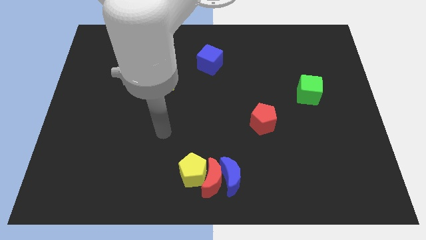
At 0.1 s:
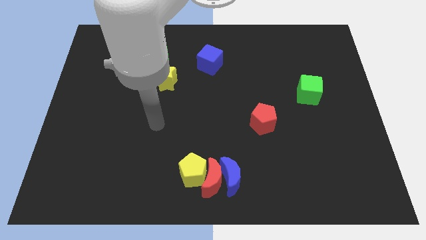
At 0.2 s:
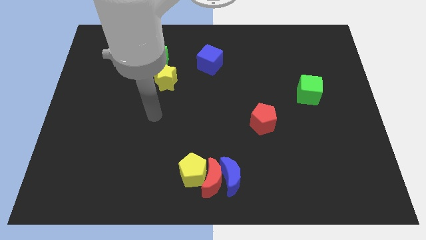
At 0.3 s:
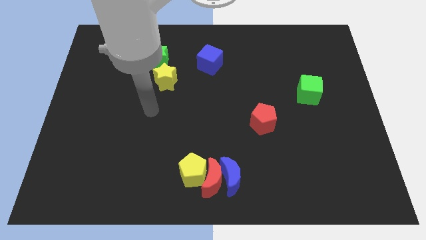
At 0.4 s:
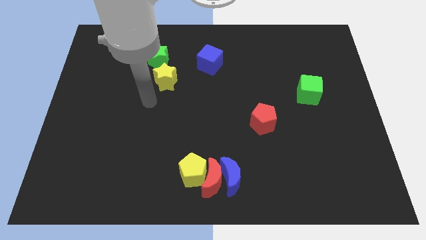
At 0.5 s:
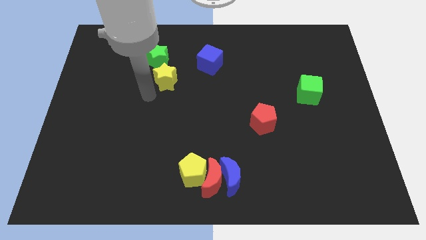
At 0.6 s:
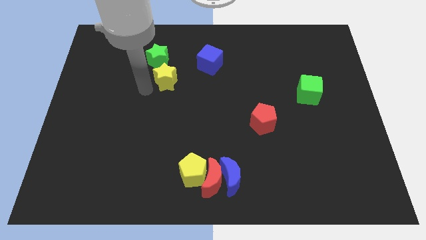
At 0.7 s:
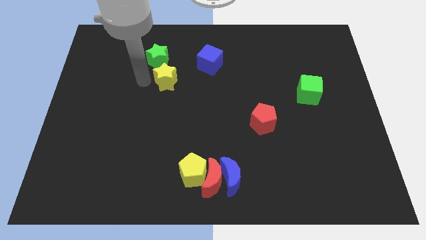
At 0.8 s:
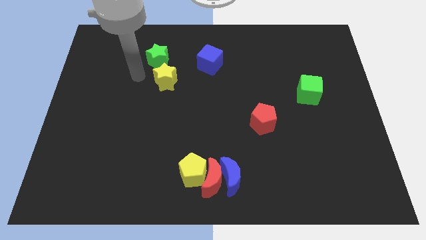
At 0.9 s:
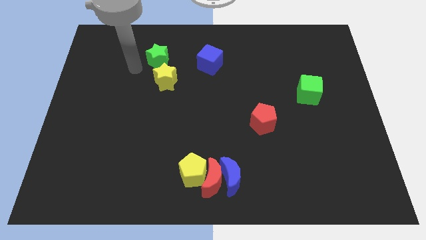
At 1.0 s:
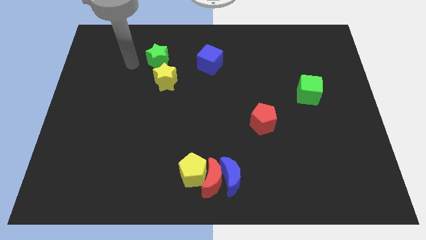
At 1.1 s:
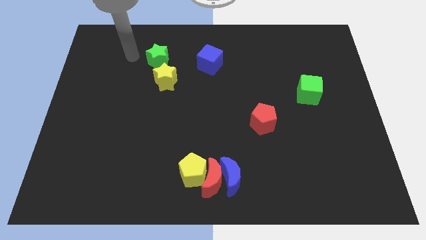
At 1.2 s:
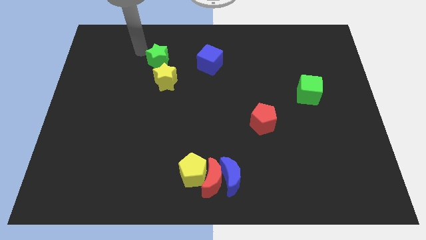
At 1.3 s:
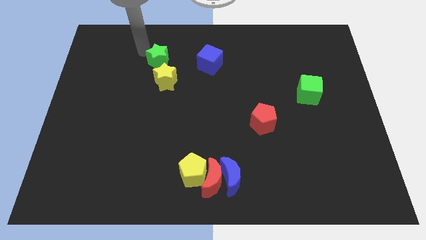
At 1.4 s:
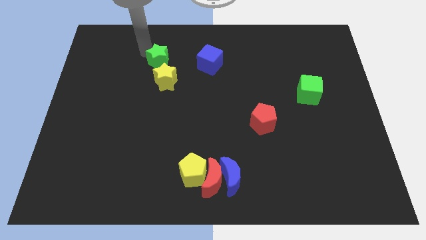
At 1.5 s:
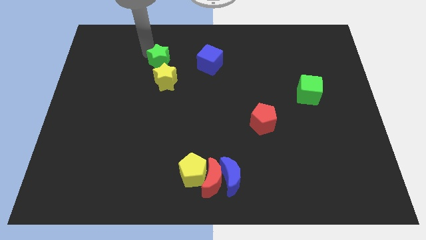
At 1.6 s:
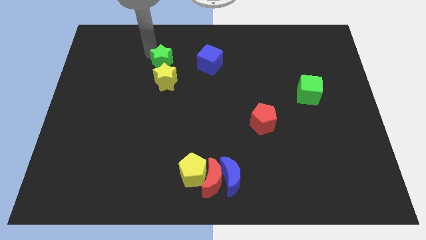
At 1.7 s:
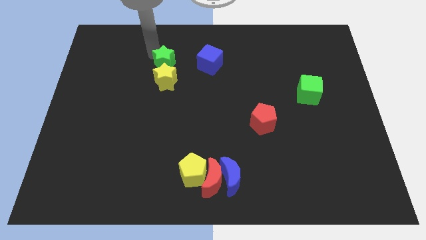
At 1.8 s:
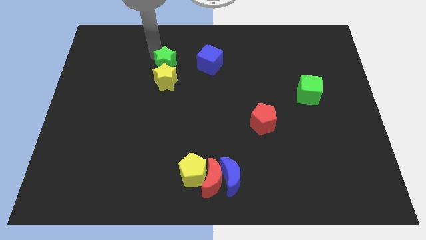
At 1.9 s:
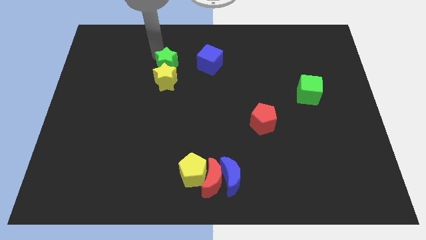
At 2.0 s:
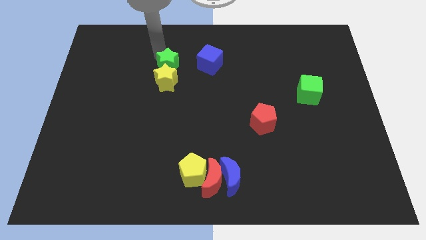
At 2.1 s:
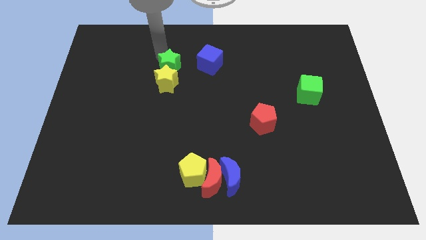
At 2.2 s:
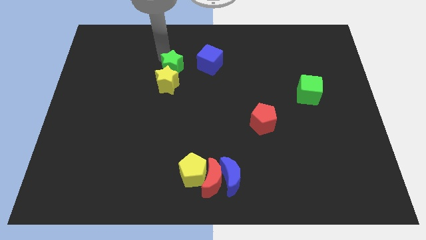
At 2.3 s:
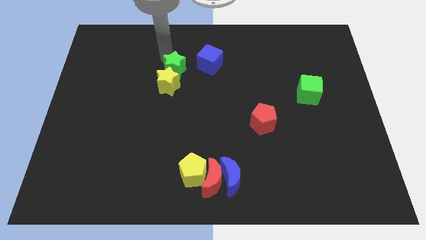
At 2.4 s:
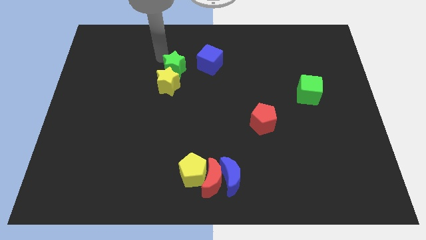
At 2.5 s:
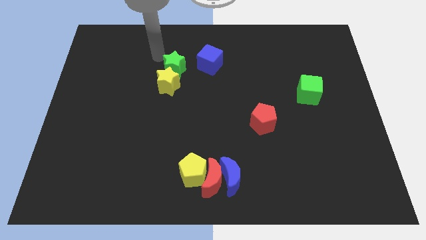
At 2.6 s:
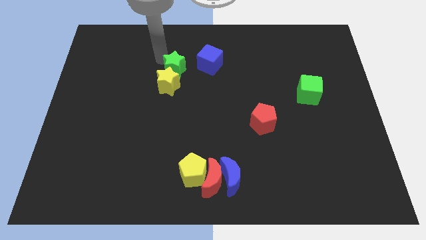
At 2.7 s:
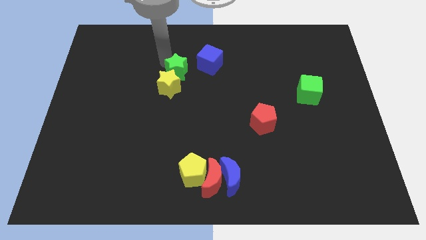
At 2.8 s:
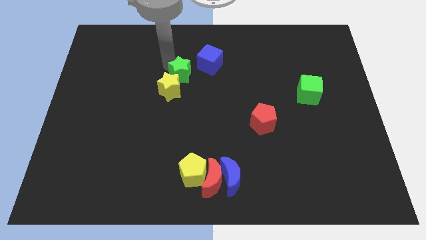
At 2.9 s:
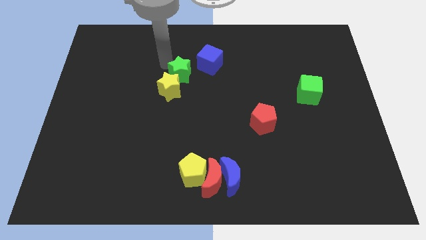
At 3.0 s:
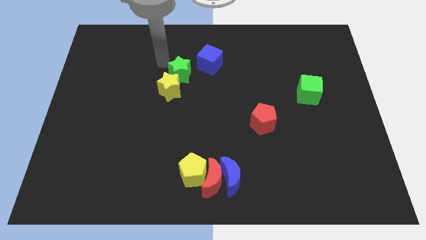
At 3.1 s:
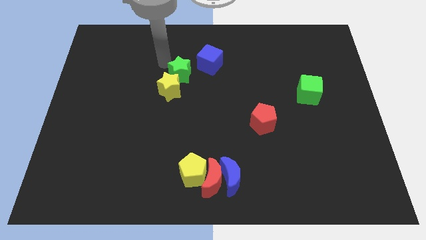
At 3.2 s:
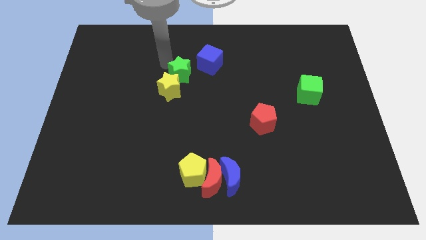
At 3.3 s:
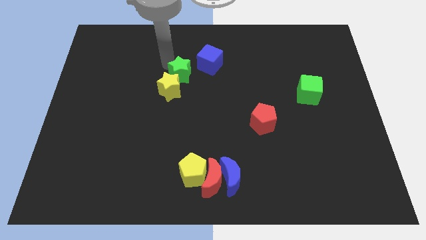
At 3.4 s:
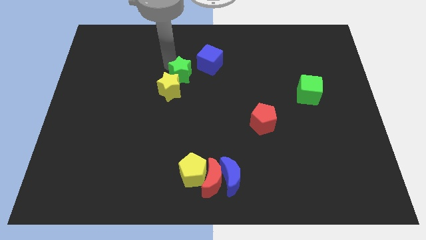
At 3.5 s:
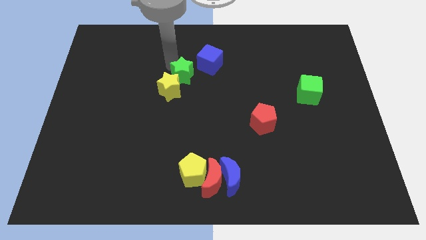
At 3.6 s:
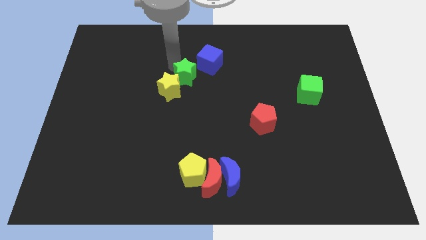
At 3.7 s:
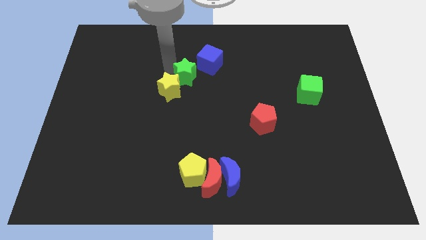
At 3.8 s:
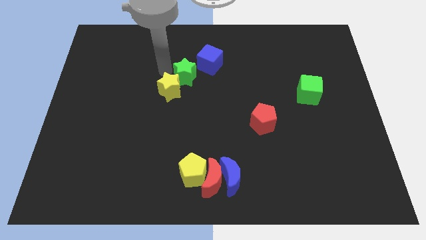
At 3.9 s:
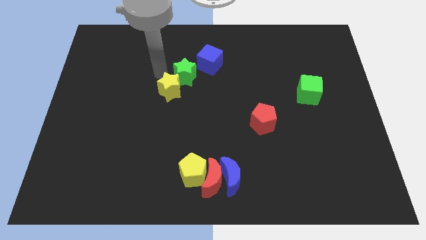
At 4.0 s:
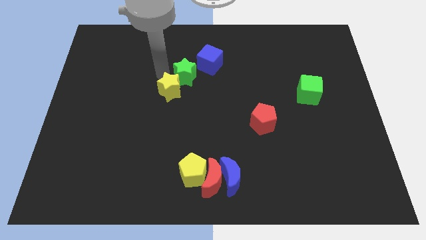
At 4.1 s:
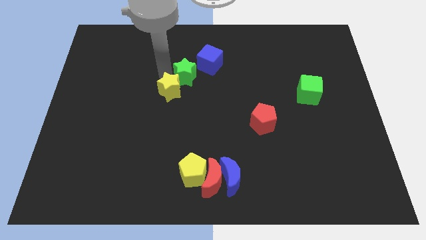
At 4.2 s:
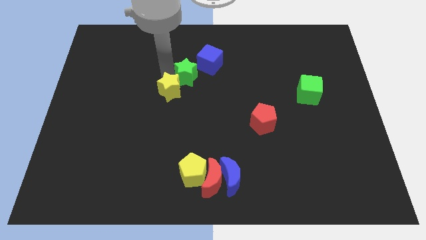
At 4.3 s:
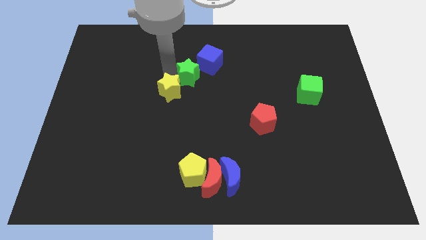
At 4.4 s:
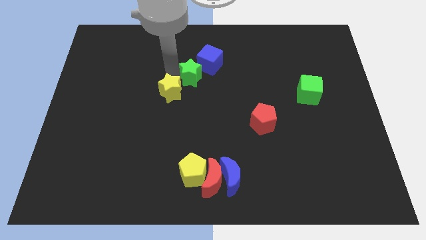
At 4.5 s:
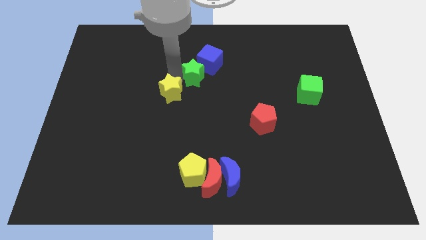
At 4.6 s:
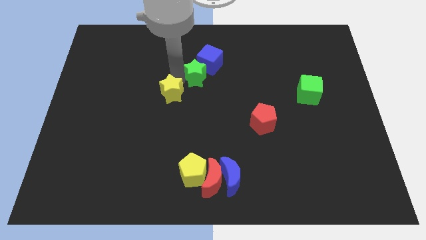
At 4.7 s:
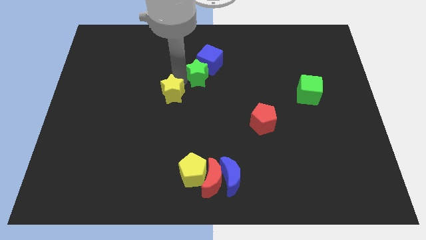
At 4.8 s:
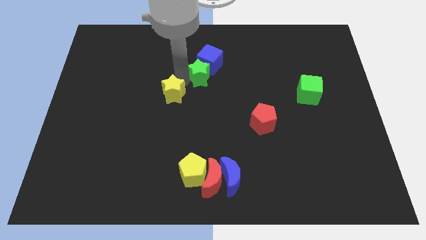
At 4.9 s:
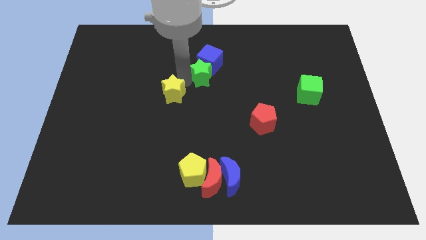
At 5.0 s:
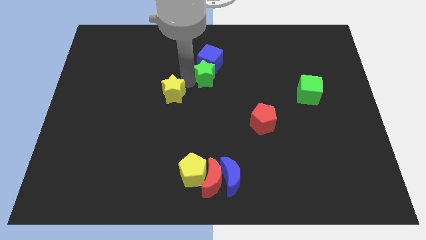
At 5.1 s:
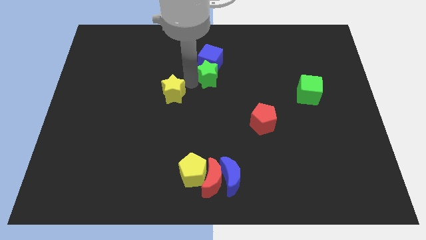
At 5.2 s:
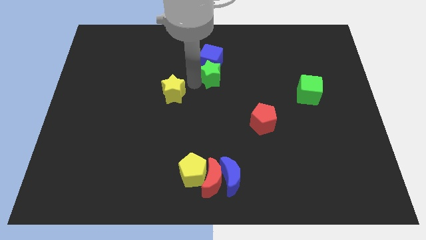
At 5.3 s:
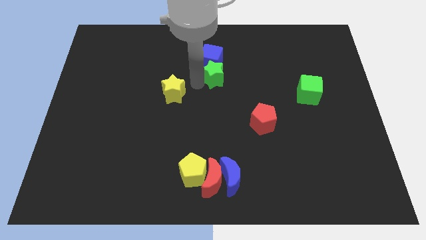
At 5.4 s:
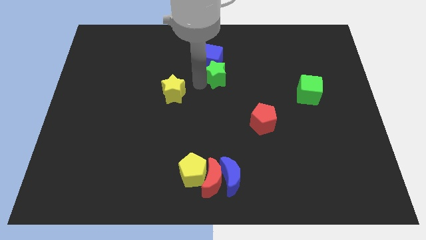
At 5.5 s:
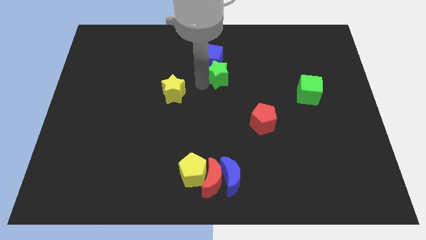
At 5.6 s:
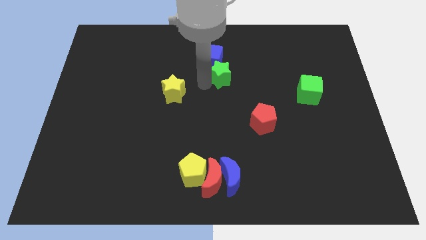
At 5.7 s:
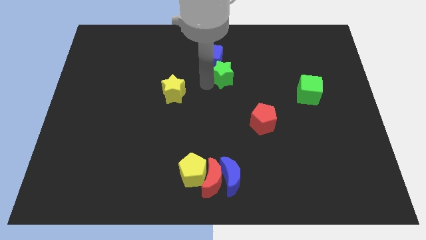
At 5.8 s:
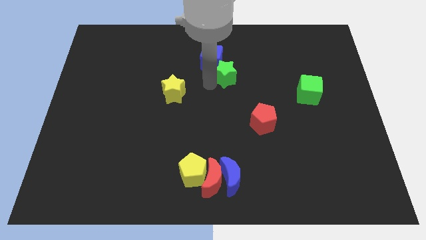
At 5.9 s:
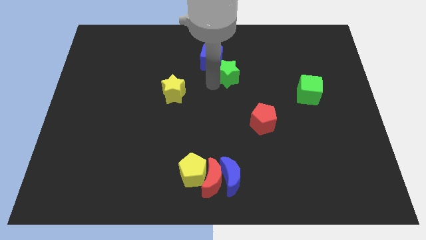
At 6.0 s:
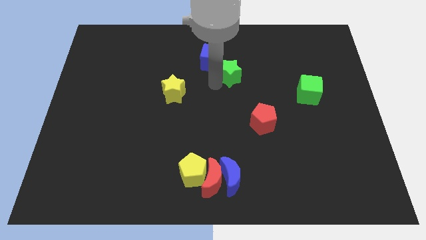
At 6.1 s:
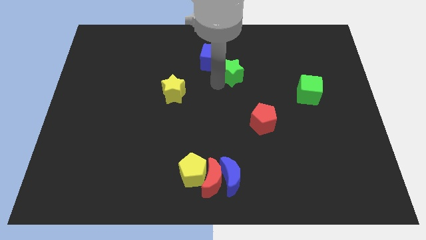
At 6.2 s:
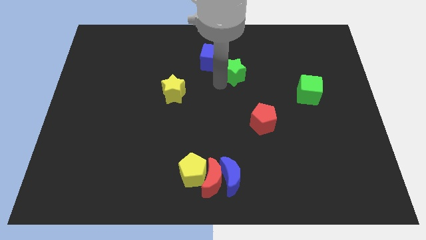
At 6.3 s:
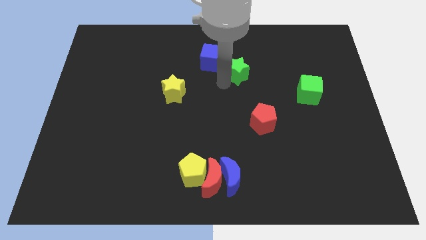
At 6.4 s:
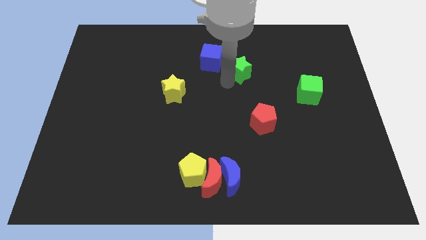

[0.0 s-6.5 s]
move the green star to the right

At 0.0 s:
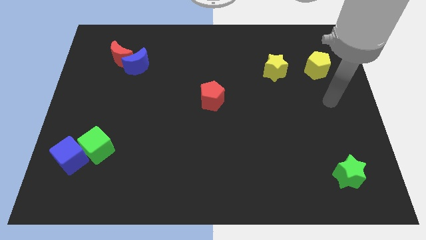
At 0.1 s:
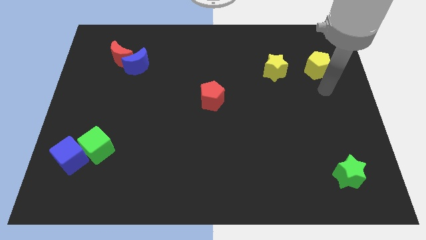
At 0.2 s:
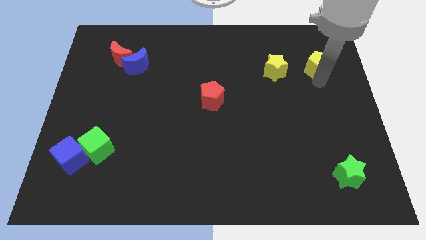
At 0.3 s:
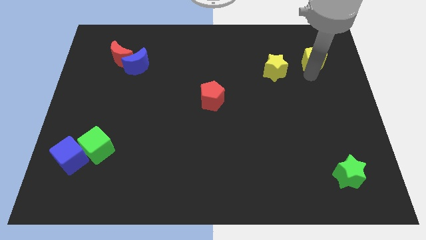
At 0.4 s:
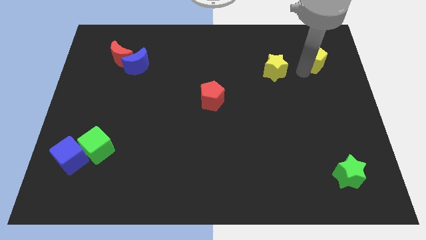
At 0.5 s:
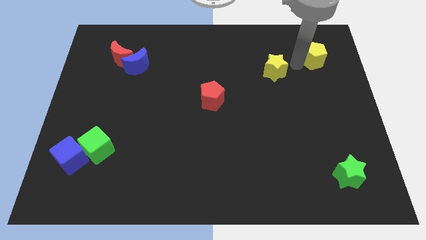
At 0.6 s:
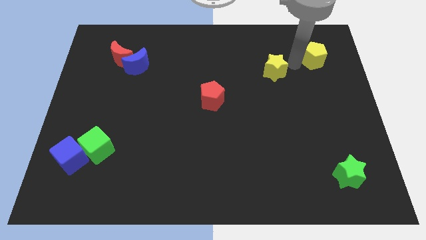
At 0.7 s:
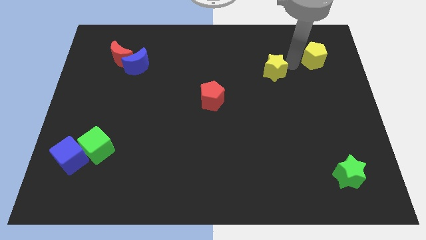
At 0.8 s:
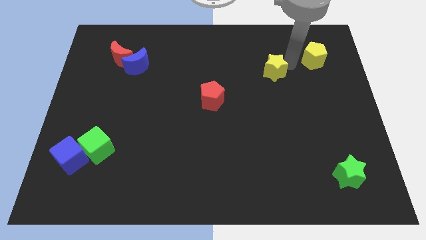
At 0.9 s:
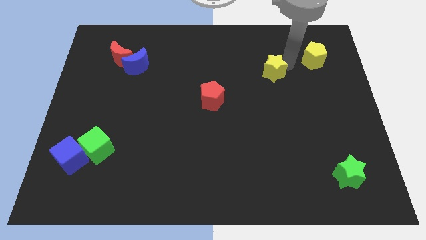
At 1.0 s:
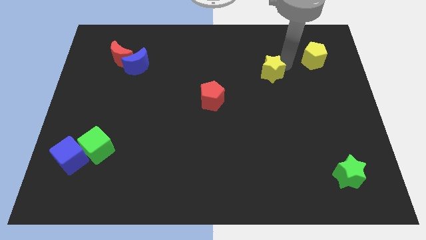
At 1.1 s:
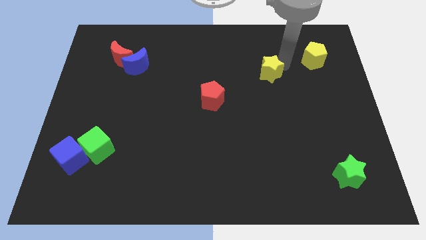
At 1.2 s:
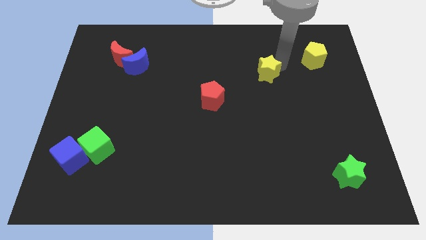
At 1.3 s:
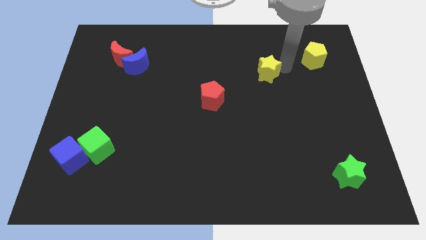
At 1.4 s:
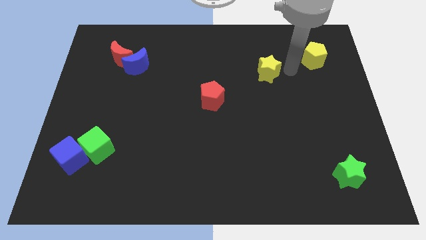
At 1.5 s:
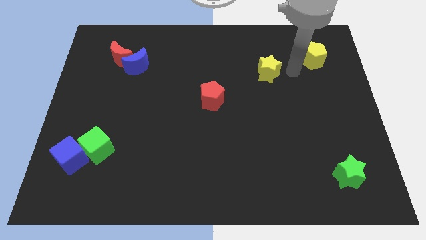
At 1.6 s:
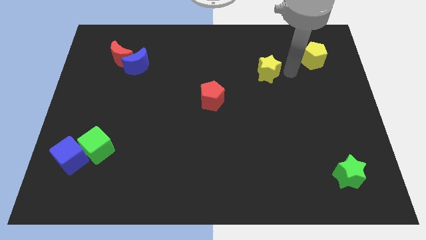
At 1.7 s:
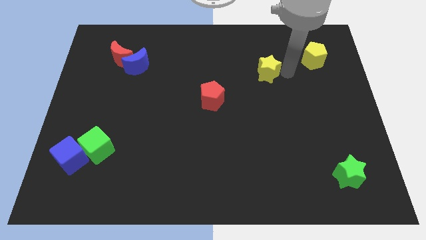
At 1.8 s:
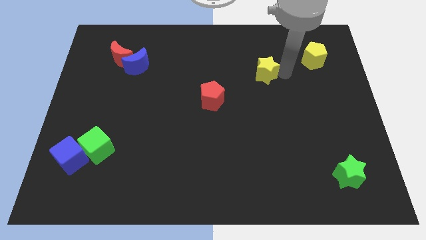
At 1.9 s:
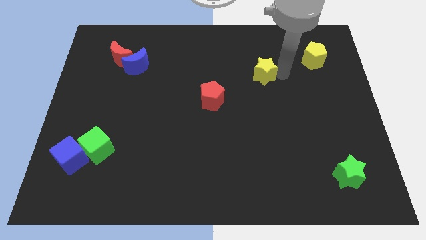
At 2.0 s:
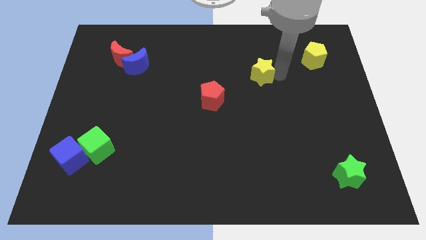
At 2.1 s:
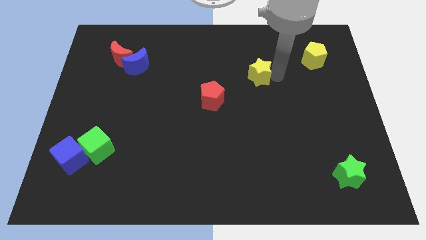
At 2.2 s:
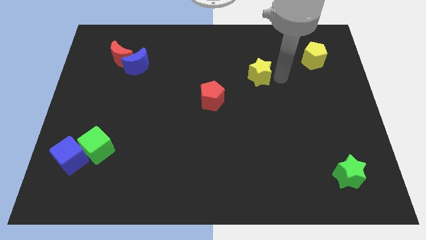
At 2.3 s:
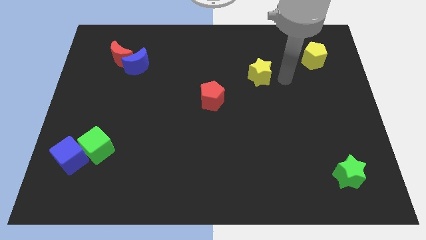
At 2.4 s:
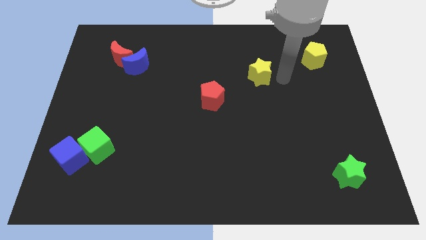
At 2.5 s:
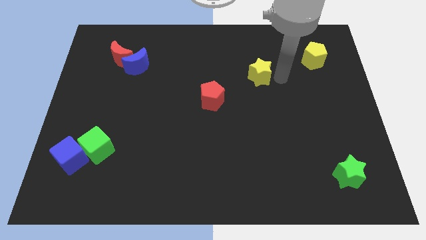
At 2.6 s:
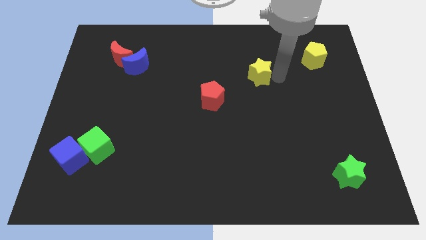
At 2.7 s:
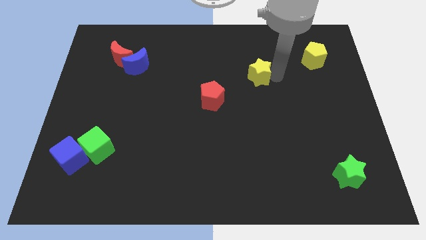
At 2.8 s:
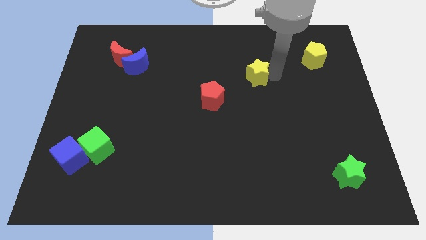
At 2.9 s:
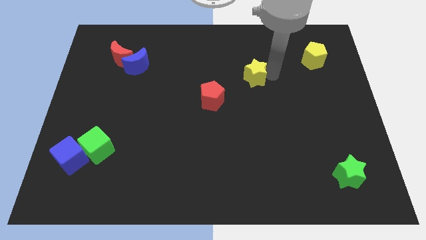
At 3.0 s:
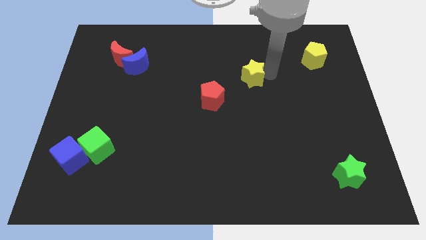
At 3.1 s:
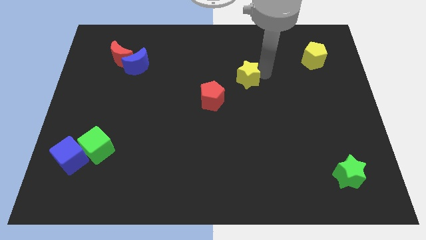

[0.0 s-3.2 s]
slightly slide the yellow star left
